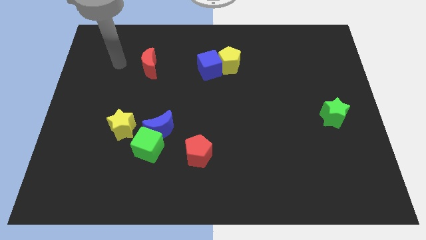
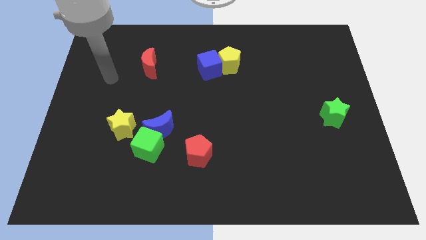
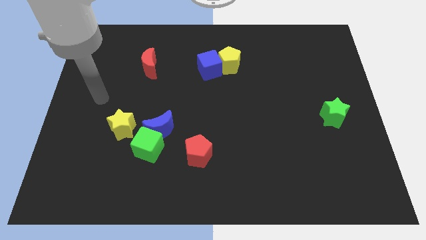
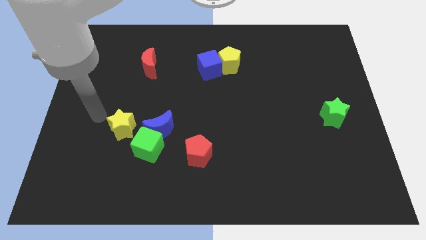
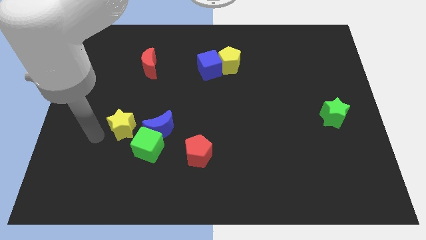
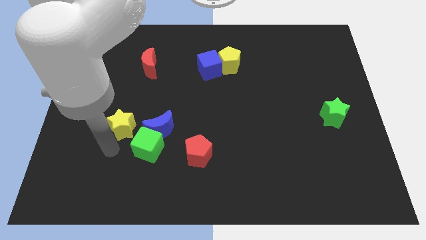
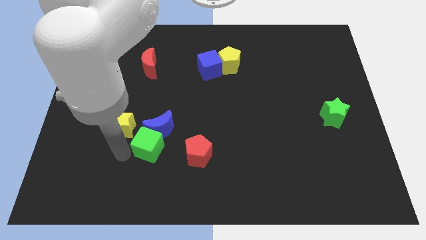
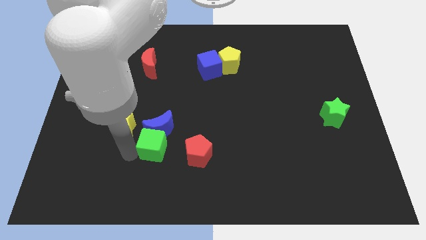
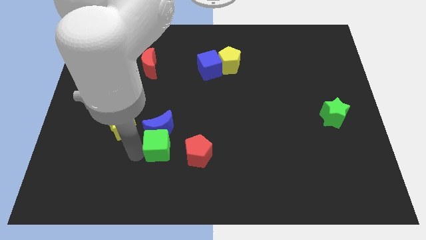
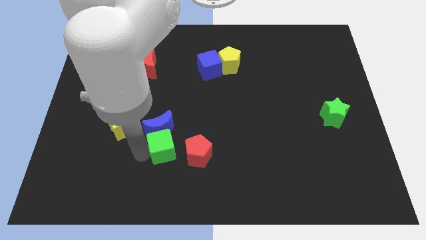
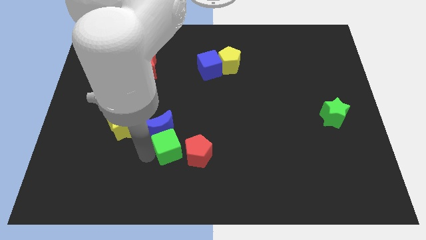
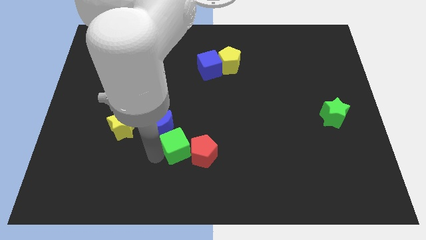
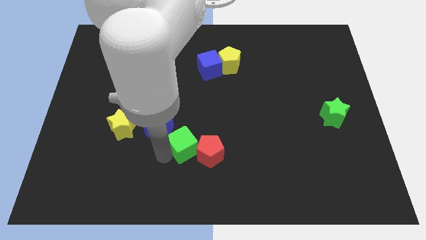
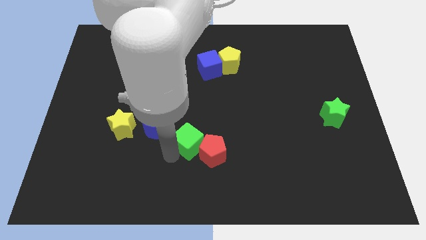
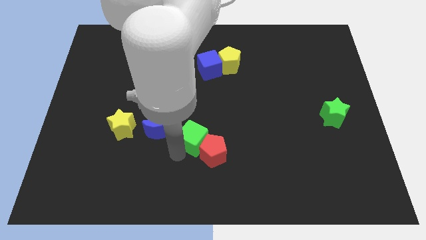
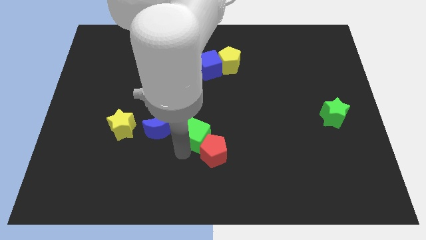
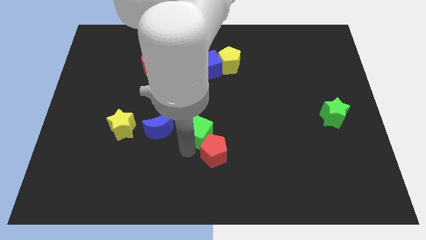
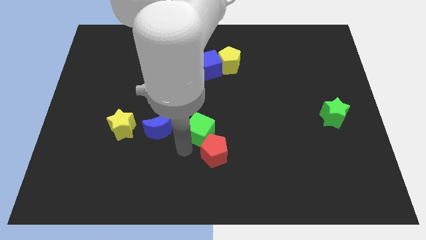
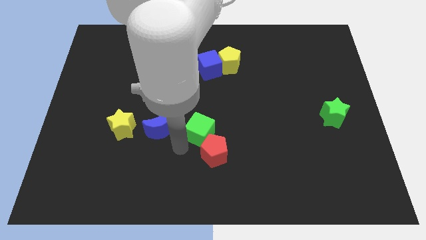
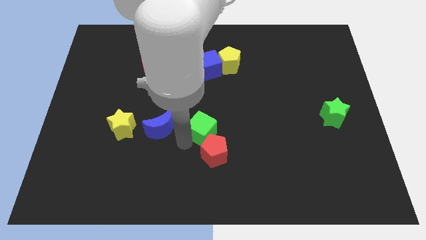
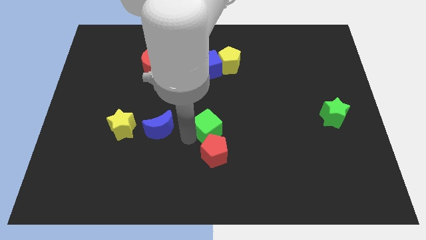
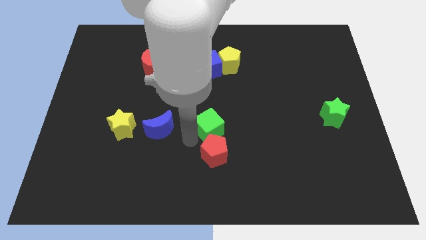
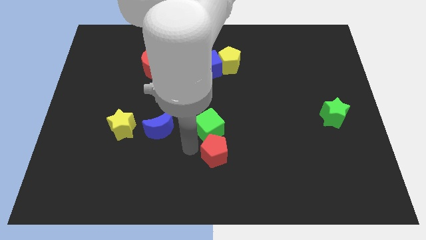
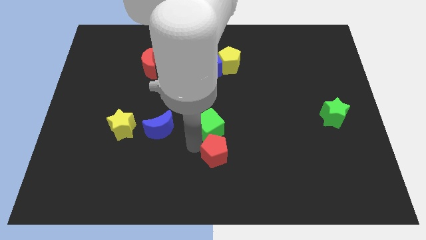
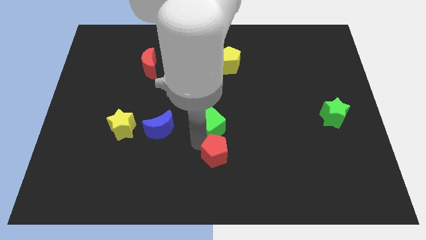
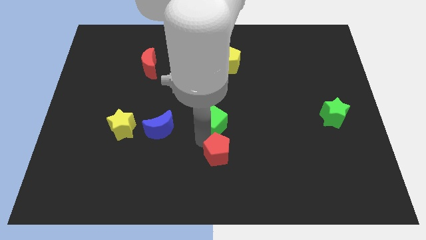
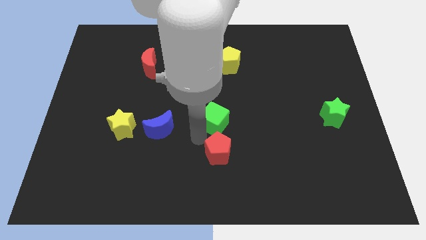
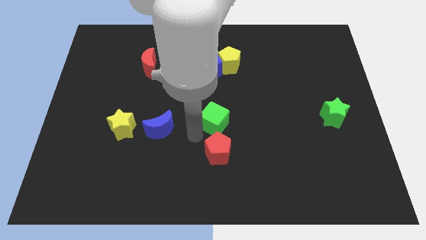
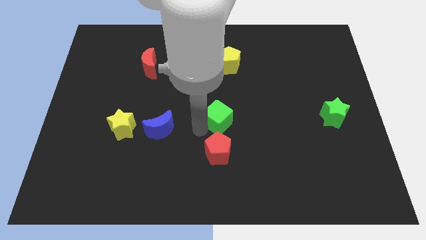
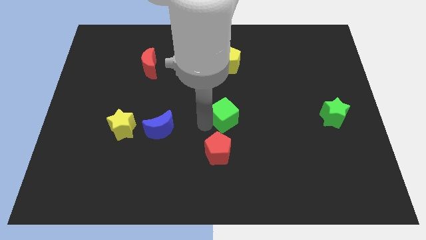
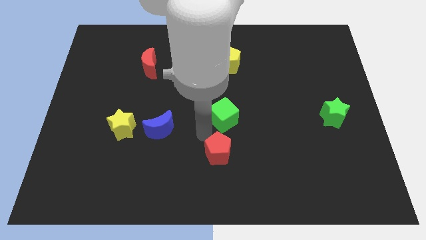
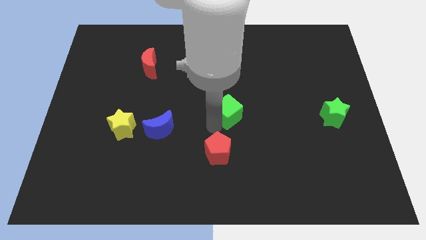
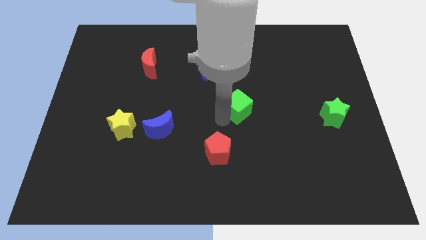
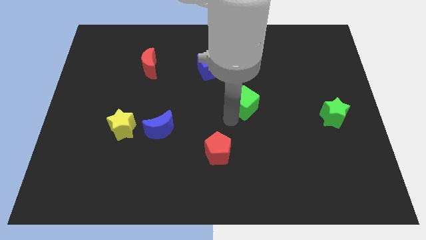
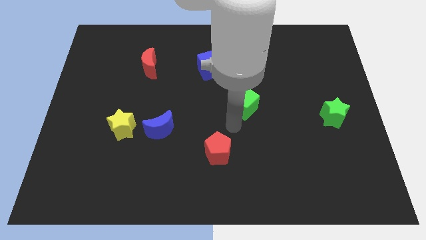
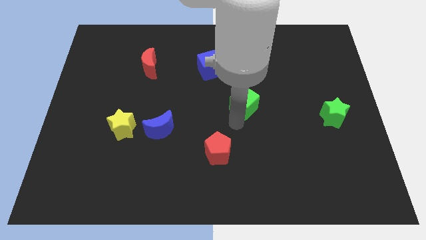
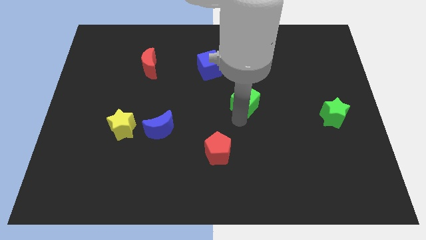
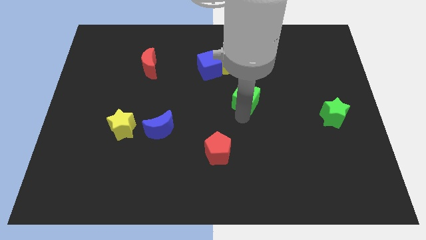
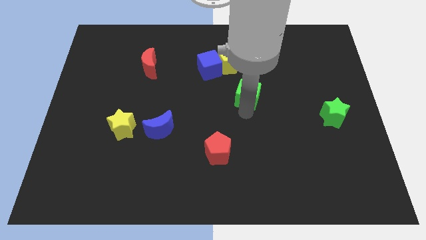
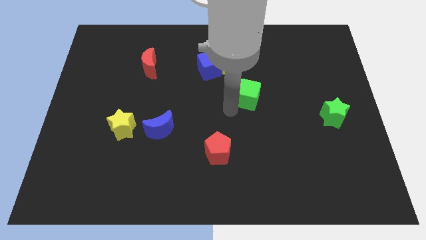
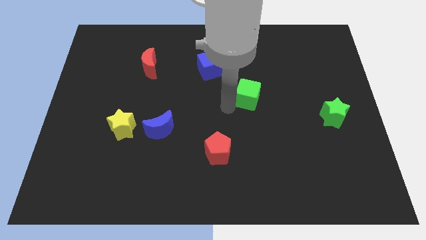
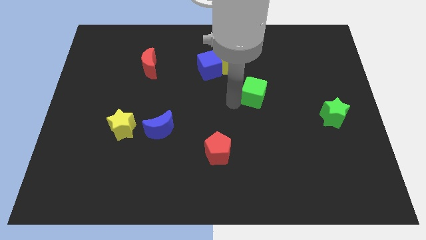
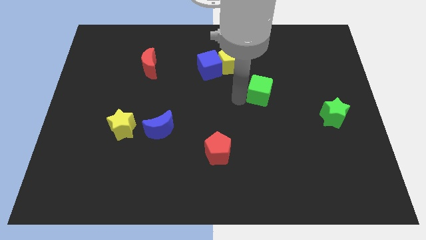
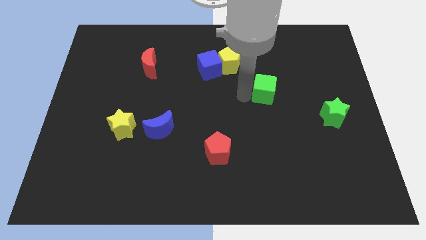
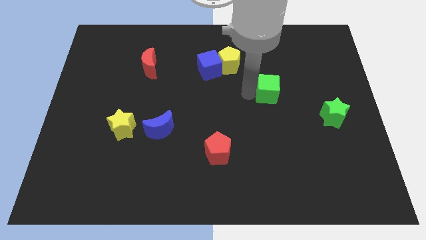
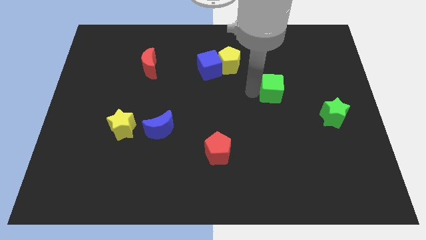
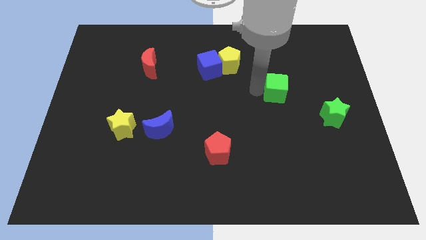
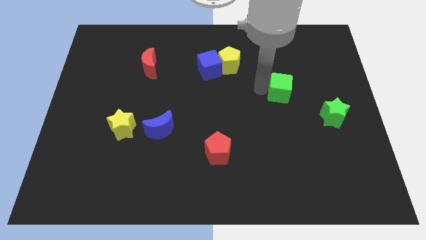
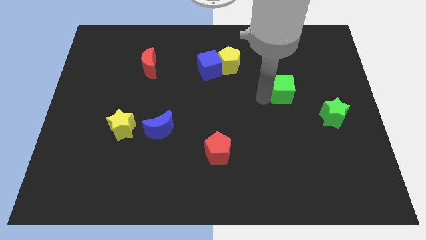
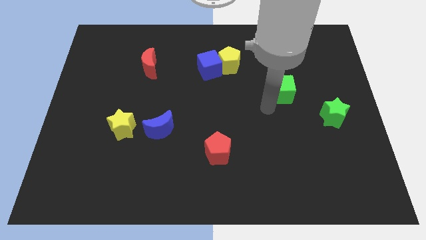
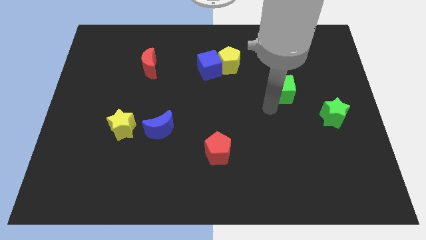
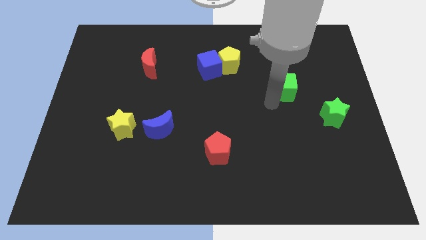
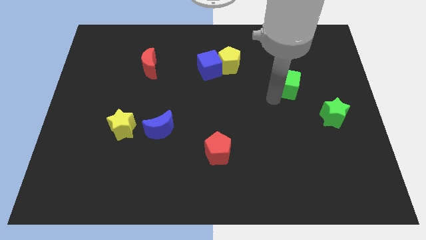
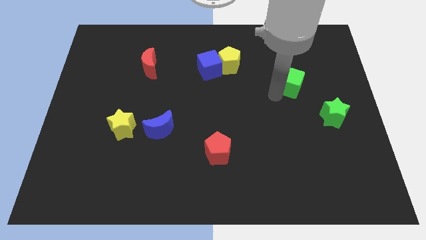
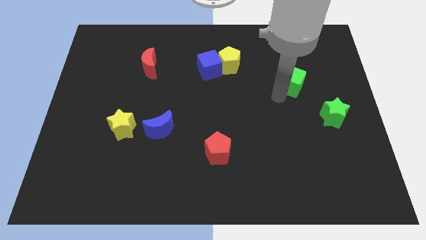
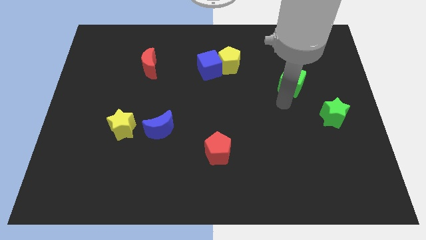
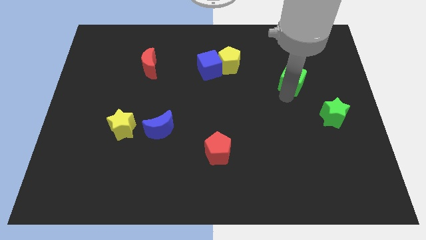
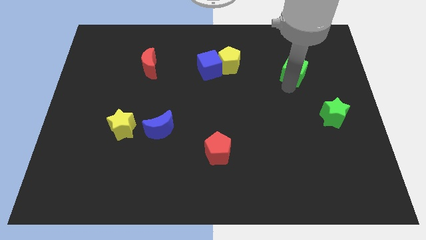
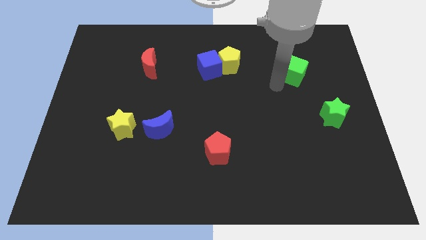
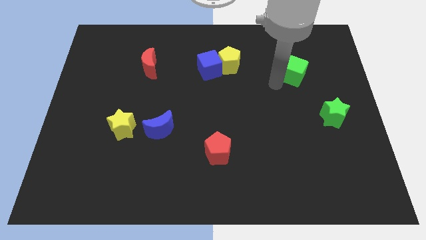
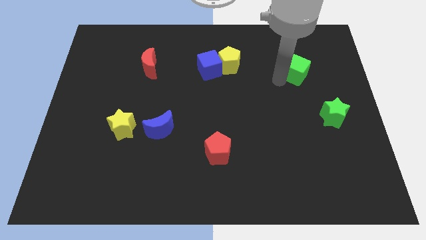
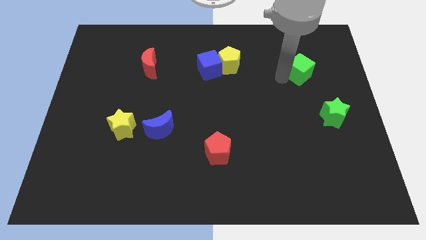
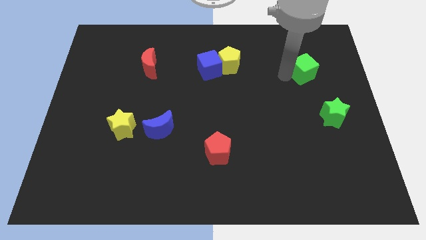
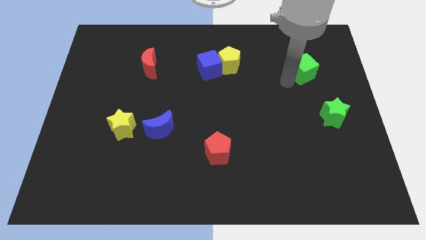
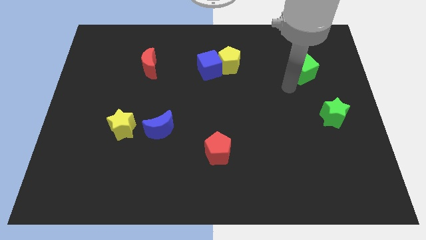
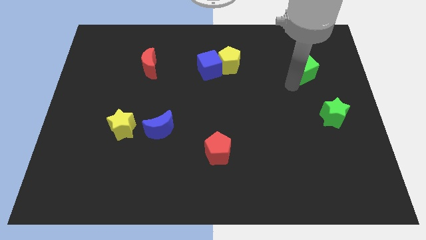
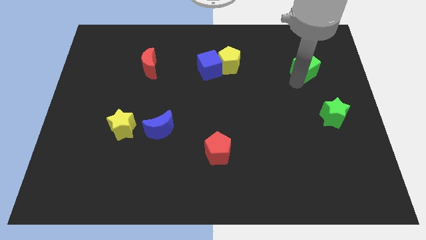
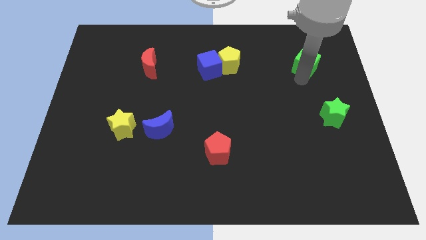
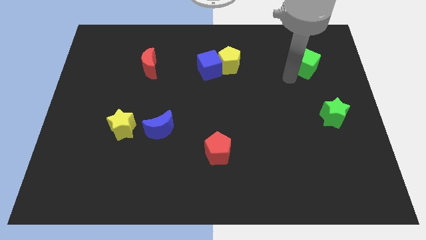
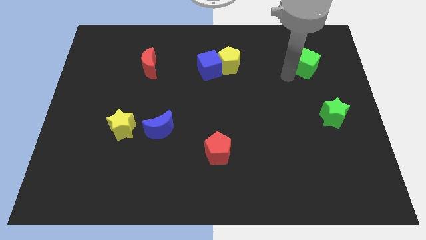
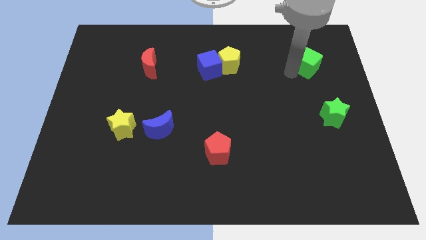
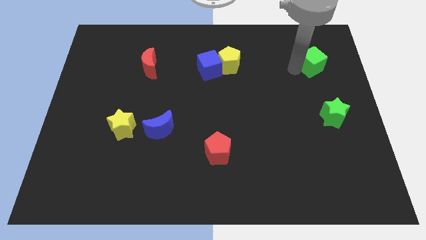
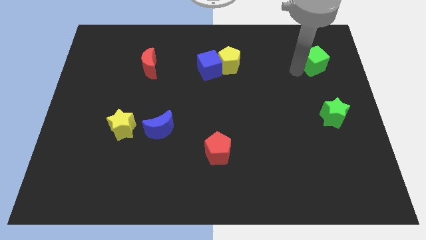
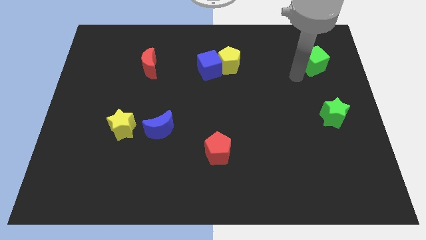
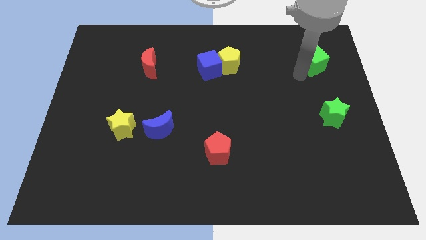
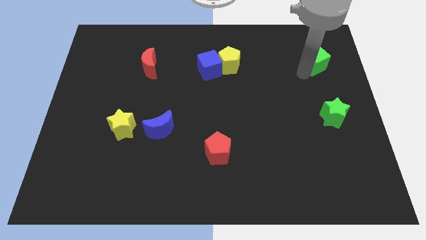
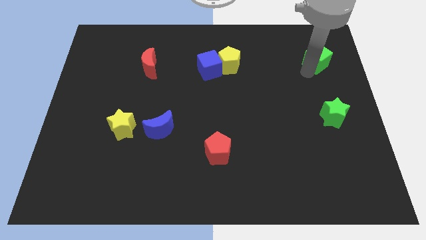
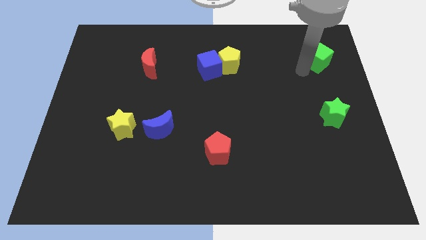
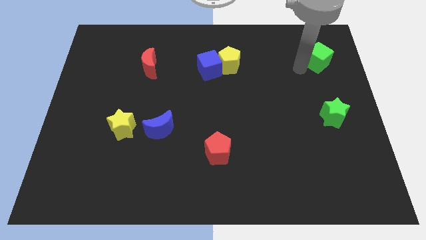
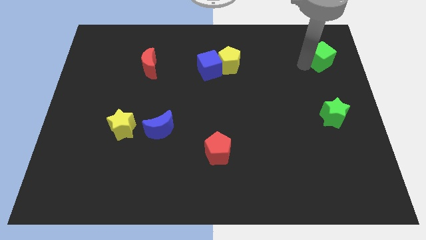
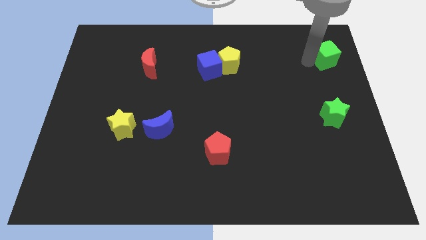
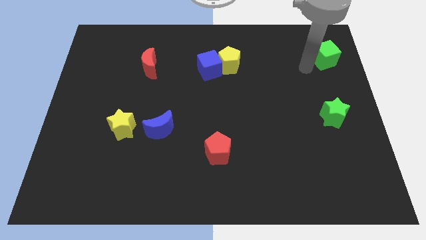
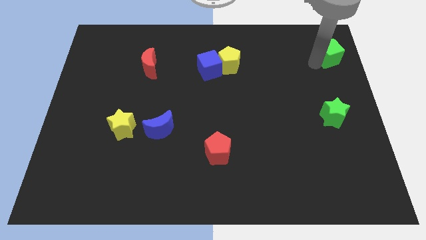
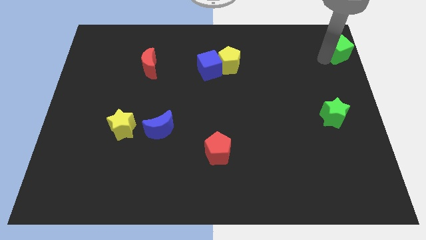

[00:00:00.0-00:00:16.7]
push the green cube to the top right corner
